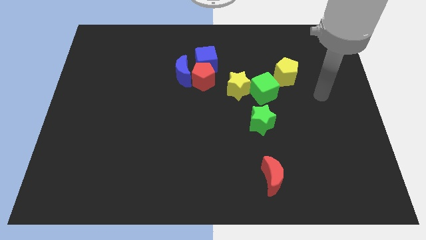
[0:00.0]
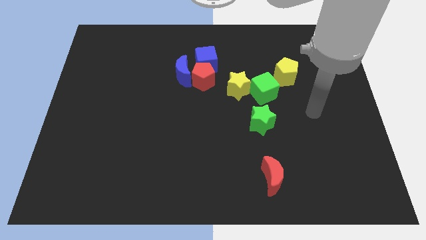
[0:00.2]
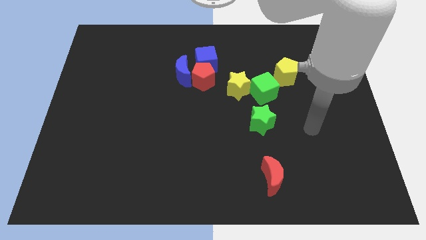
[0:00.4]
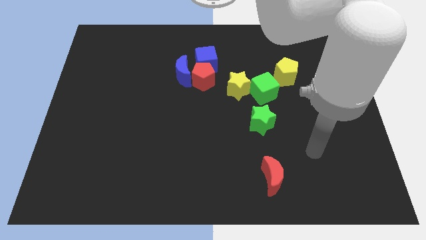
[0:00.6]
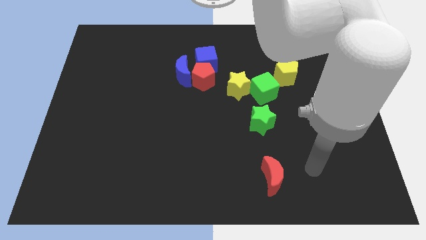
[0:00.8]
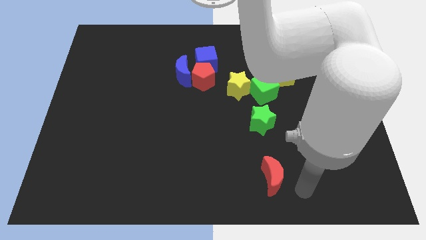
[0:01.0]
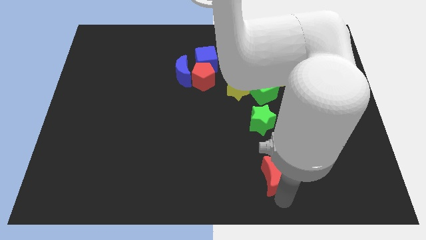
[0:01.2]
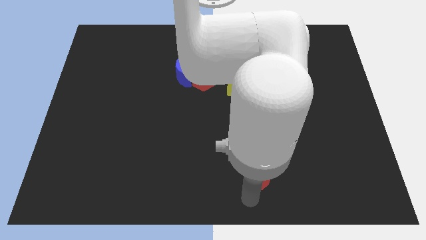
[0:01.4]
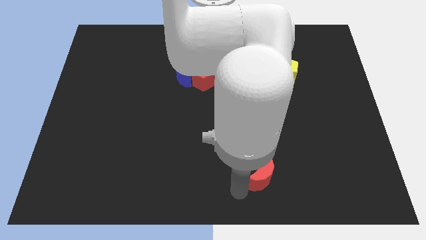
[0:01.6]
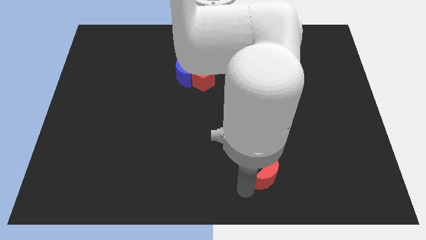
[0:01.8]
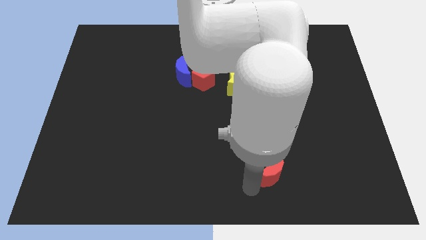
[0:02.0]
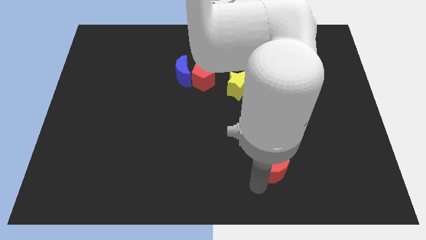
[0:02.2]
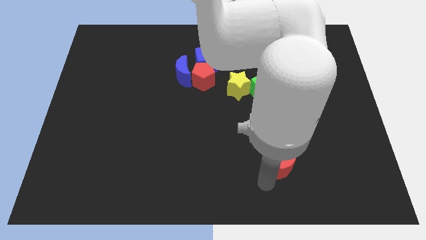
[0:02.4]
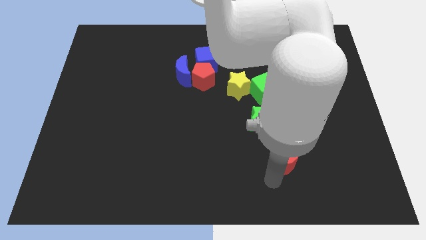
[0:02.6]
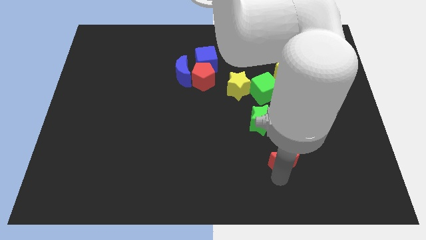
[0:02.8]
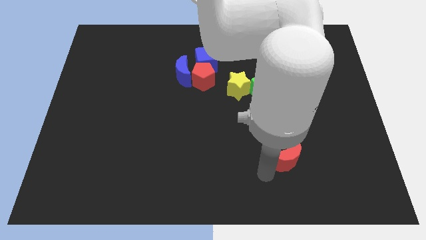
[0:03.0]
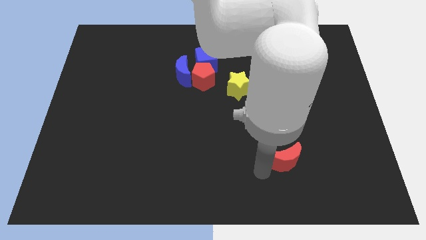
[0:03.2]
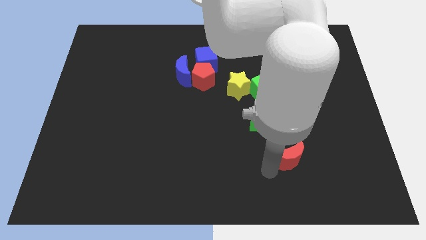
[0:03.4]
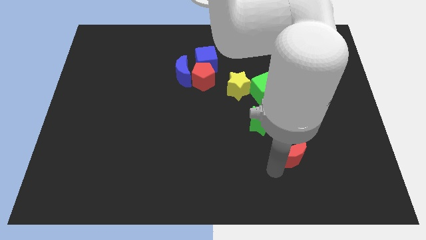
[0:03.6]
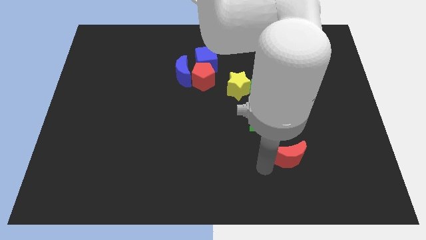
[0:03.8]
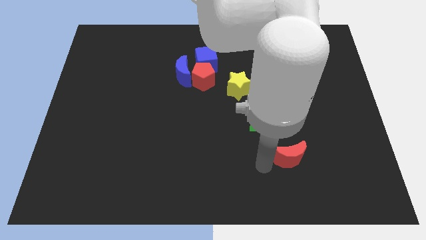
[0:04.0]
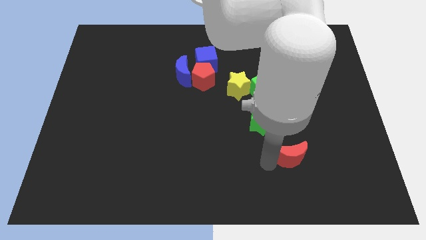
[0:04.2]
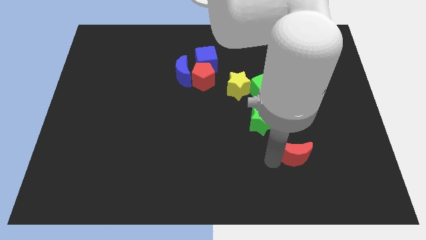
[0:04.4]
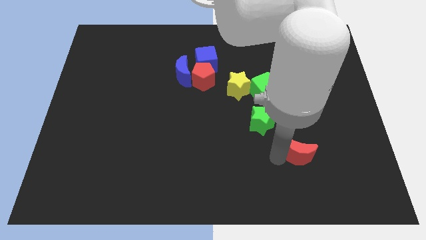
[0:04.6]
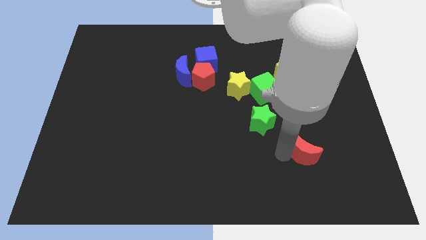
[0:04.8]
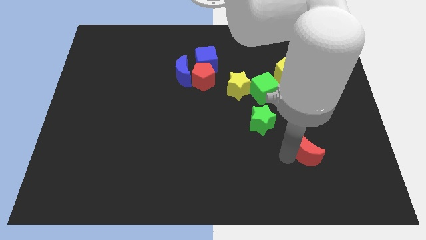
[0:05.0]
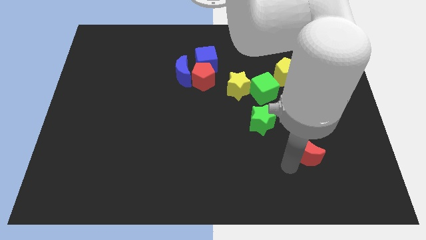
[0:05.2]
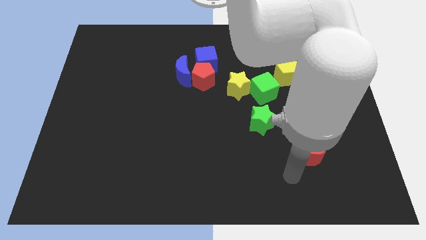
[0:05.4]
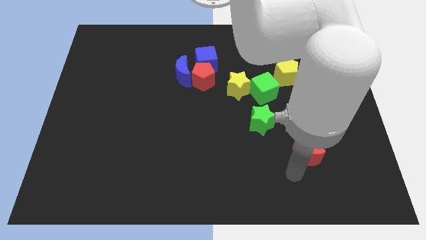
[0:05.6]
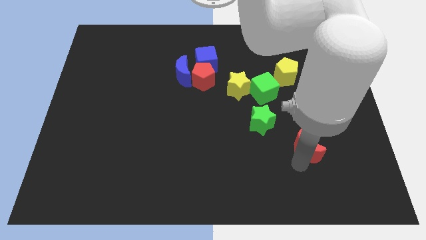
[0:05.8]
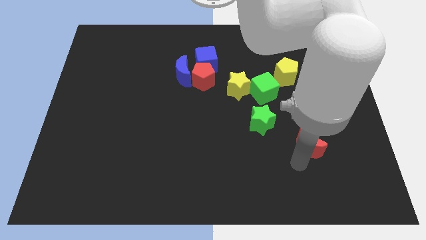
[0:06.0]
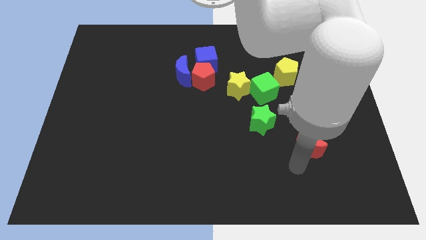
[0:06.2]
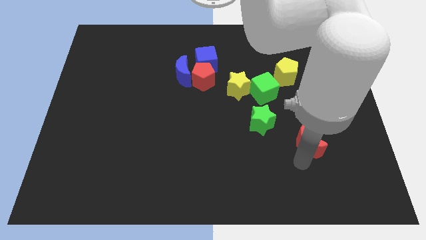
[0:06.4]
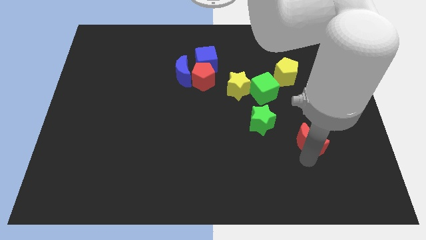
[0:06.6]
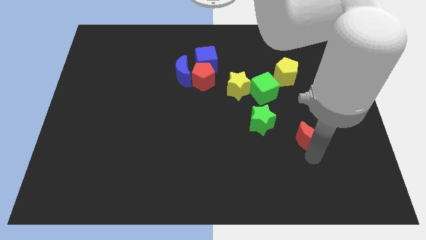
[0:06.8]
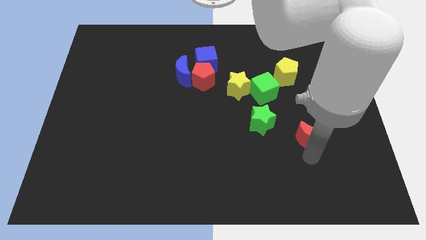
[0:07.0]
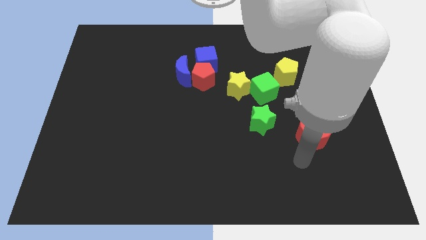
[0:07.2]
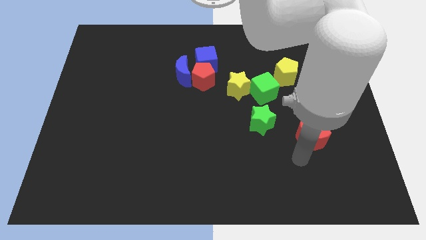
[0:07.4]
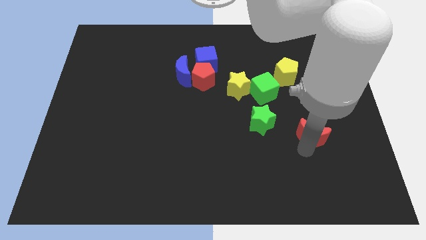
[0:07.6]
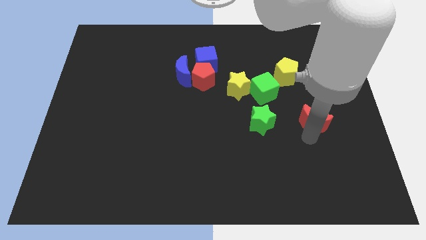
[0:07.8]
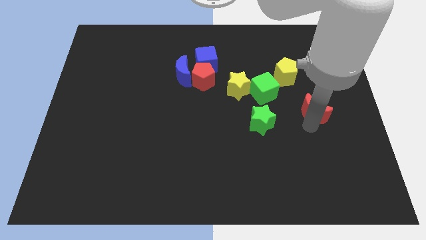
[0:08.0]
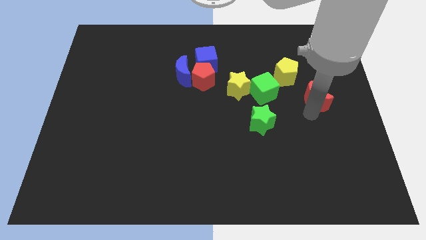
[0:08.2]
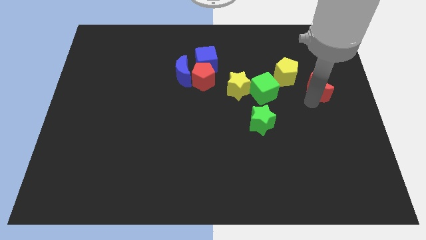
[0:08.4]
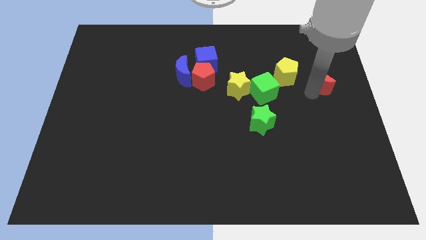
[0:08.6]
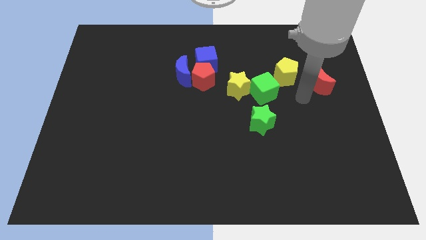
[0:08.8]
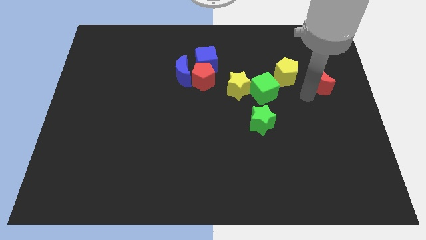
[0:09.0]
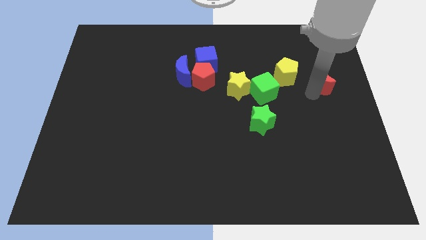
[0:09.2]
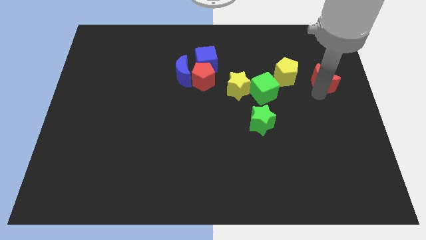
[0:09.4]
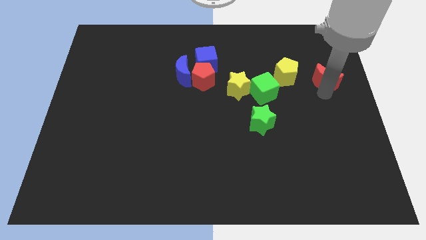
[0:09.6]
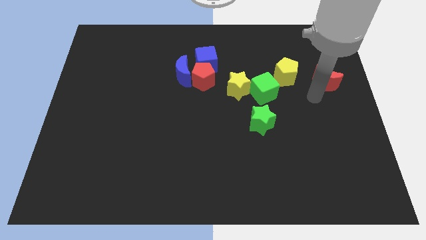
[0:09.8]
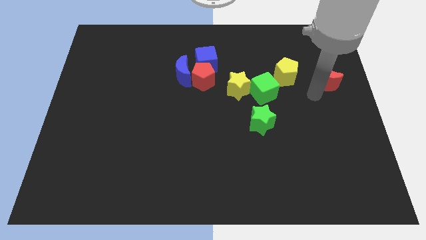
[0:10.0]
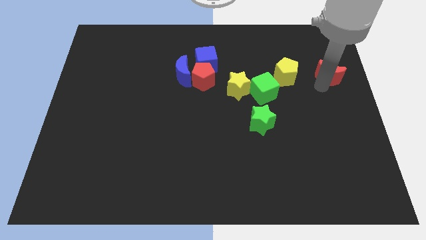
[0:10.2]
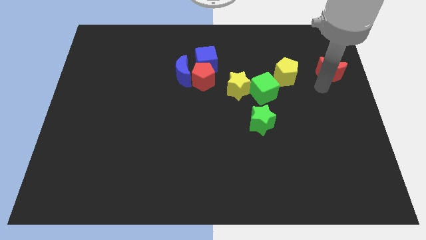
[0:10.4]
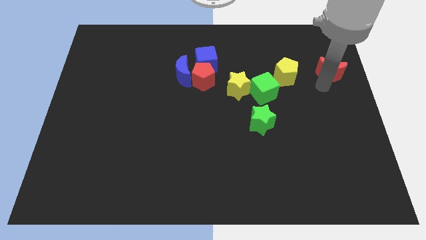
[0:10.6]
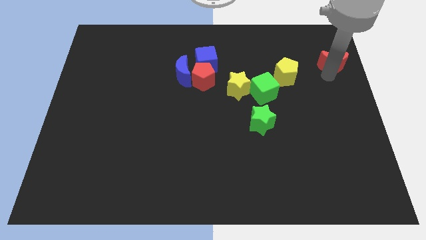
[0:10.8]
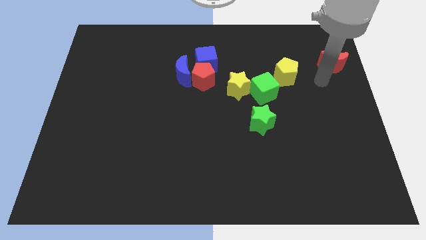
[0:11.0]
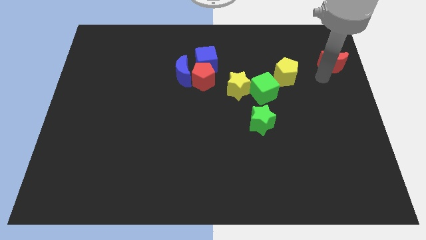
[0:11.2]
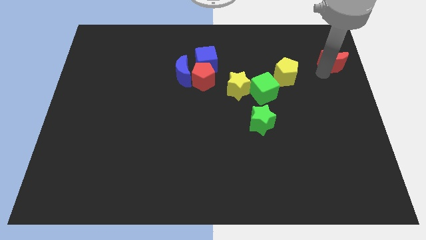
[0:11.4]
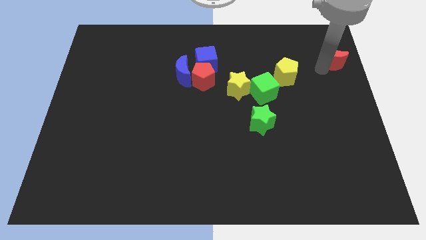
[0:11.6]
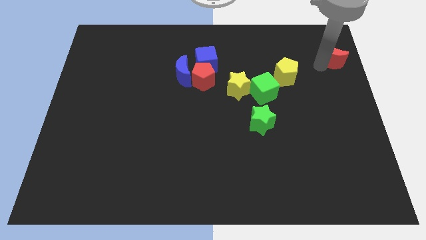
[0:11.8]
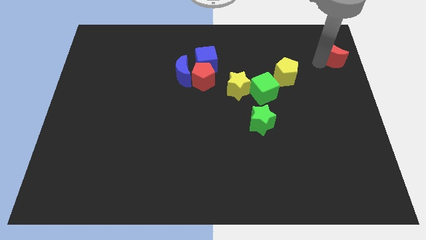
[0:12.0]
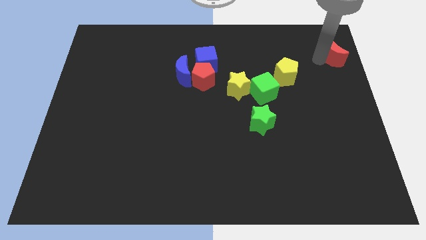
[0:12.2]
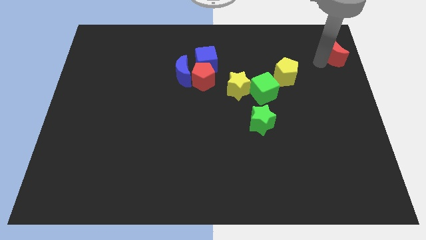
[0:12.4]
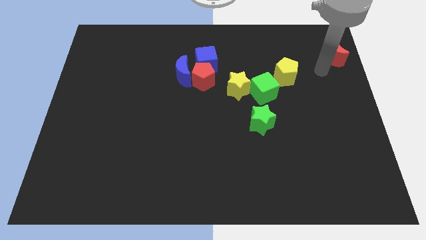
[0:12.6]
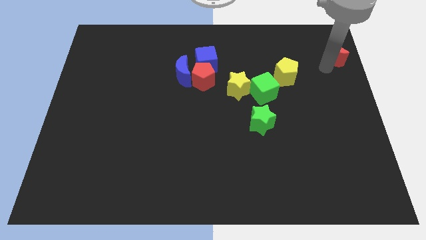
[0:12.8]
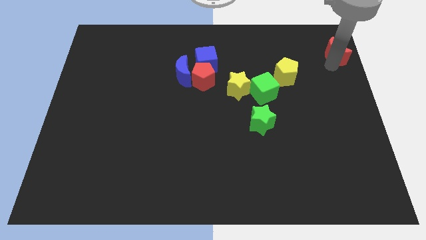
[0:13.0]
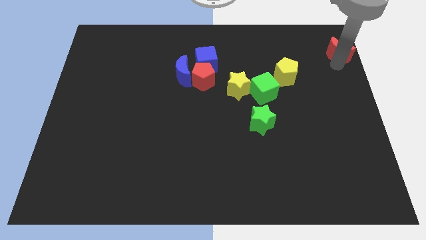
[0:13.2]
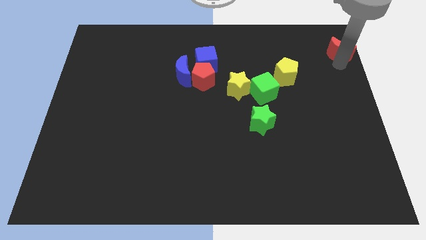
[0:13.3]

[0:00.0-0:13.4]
move the red moon to the top right corner
